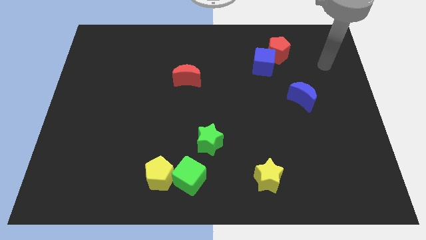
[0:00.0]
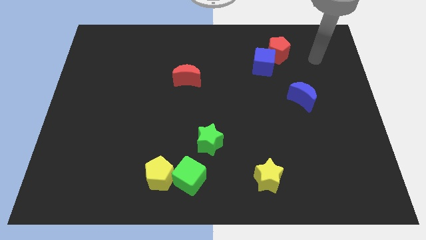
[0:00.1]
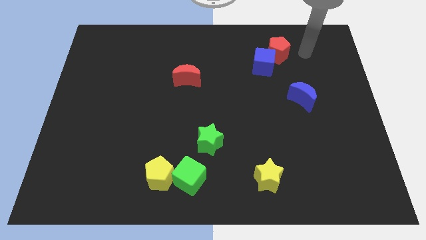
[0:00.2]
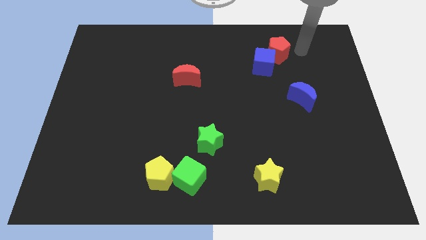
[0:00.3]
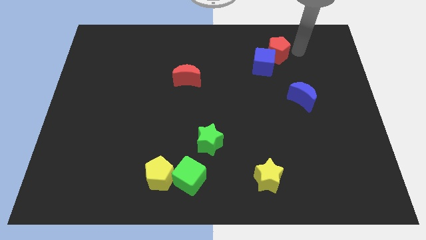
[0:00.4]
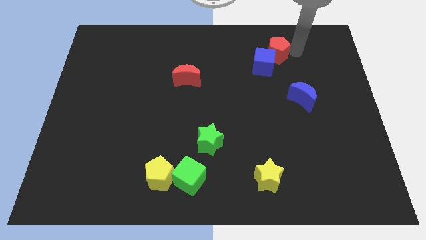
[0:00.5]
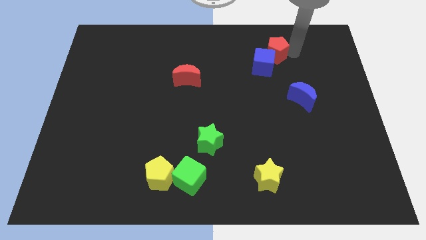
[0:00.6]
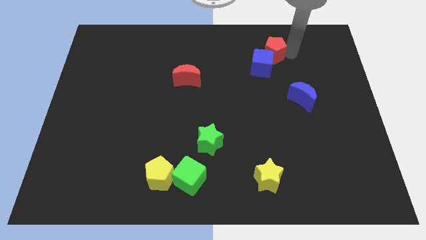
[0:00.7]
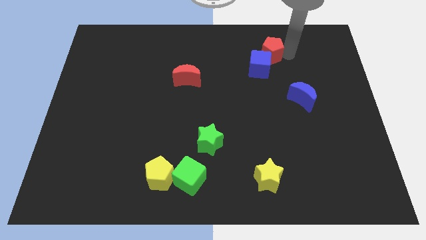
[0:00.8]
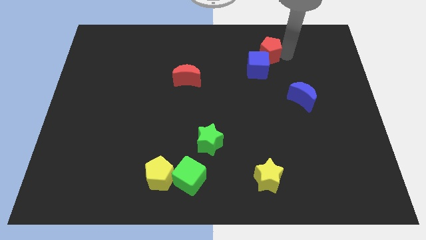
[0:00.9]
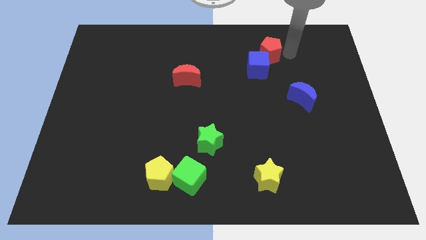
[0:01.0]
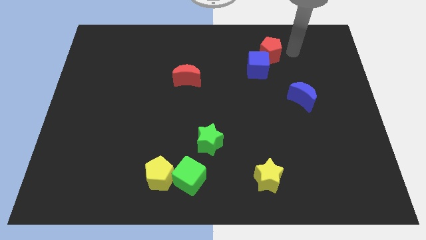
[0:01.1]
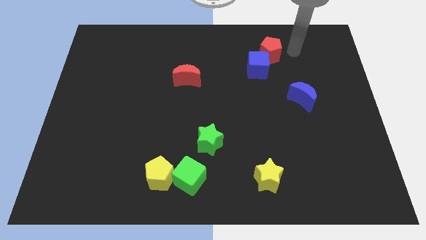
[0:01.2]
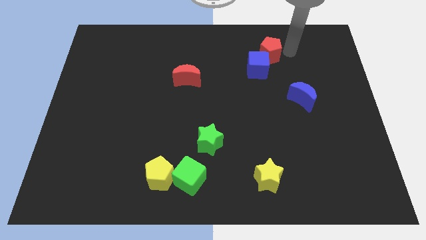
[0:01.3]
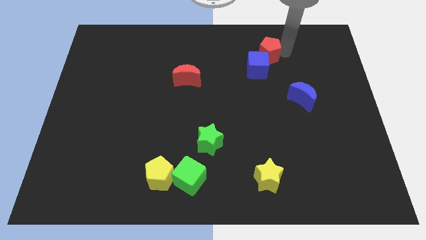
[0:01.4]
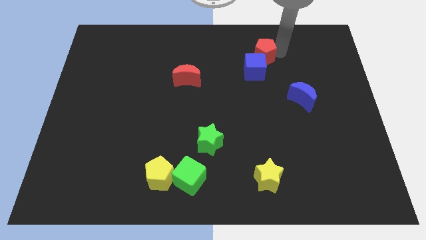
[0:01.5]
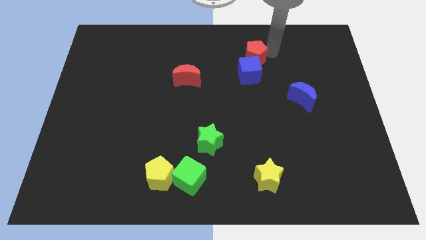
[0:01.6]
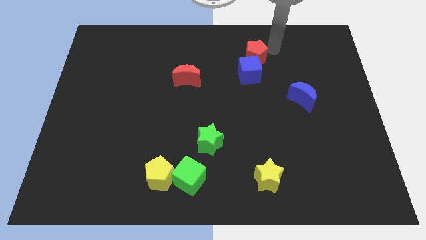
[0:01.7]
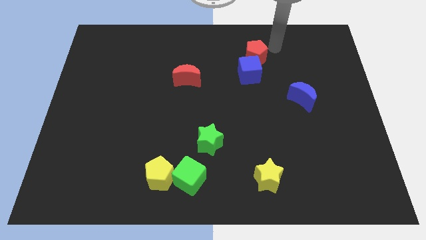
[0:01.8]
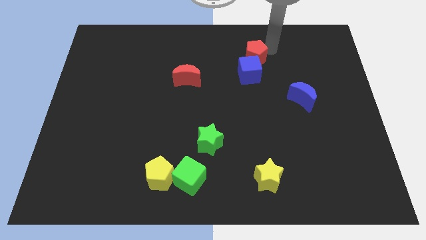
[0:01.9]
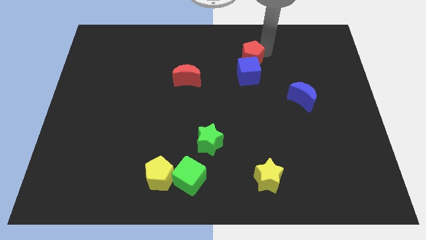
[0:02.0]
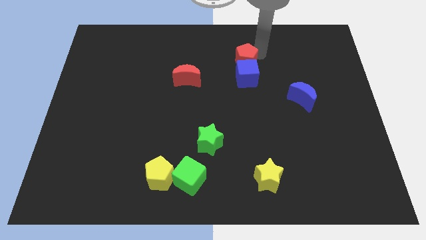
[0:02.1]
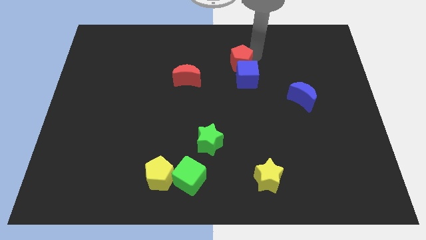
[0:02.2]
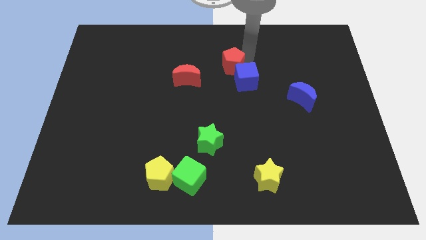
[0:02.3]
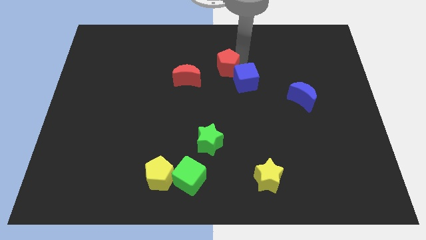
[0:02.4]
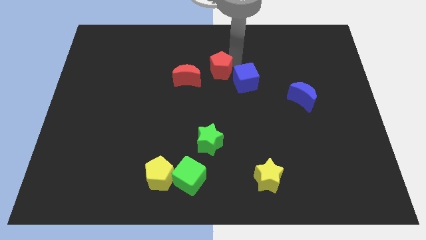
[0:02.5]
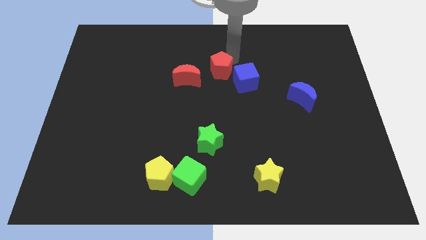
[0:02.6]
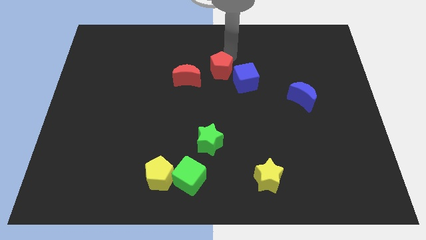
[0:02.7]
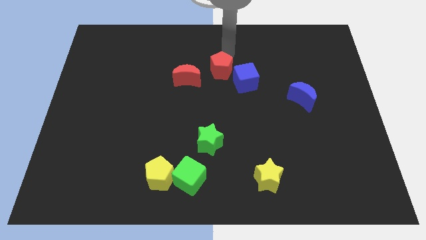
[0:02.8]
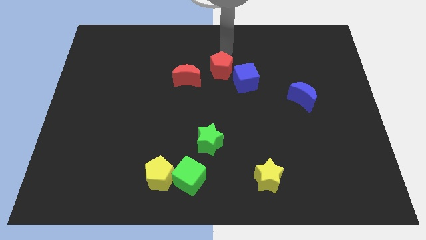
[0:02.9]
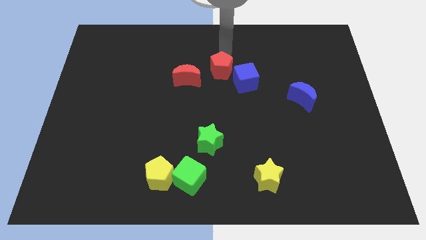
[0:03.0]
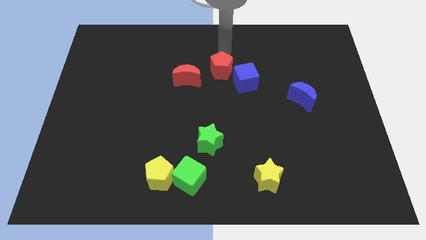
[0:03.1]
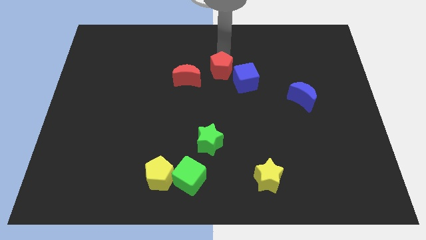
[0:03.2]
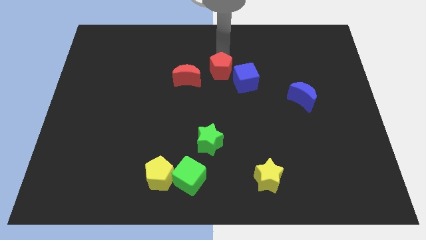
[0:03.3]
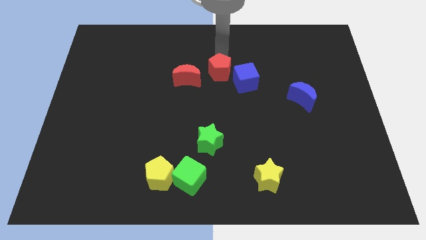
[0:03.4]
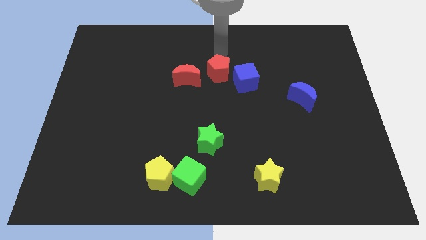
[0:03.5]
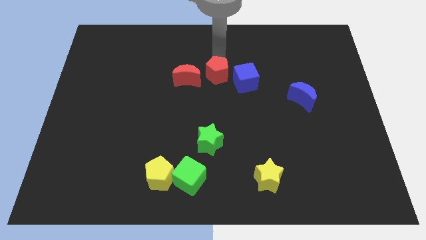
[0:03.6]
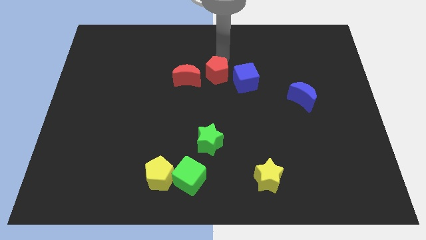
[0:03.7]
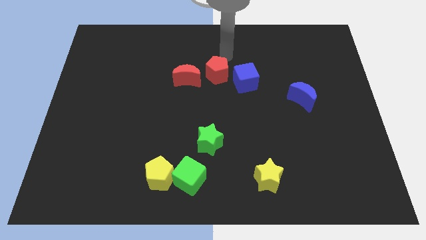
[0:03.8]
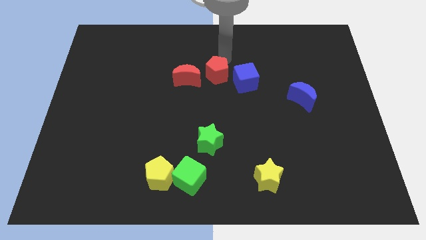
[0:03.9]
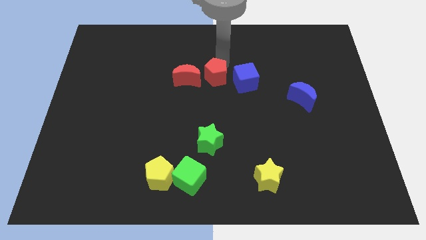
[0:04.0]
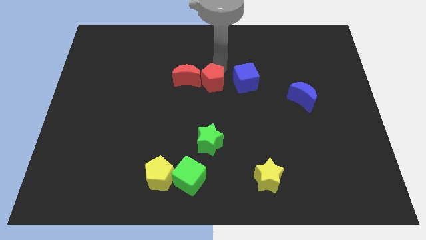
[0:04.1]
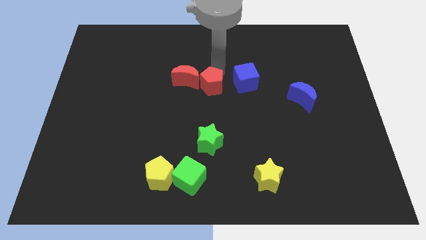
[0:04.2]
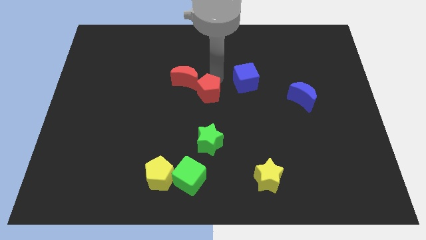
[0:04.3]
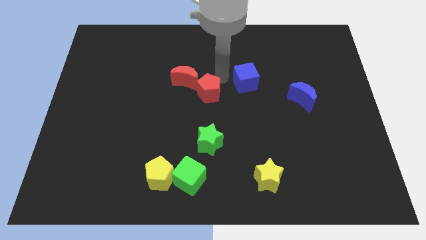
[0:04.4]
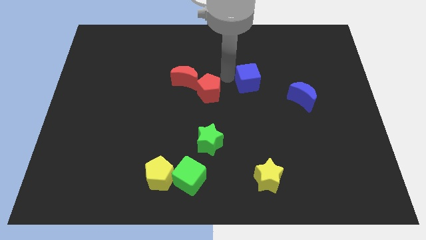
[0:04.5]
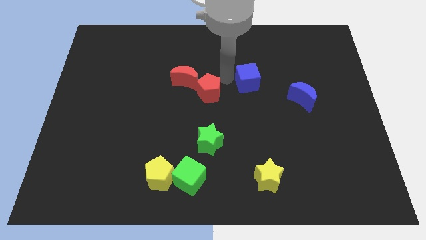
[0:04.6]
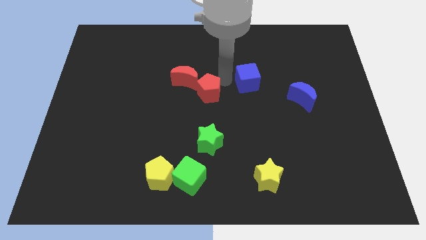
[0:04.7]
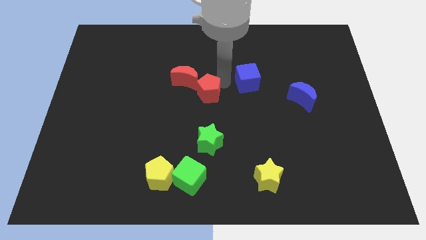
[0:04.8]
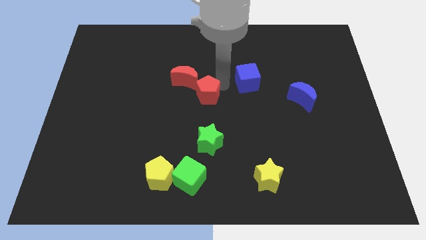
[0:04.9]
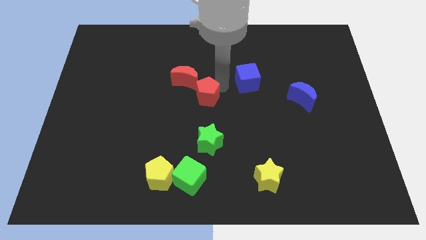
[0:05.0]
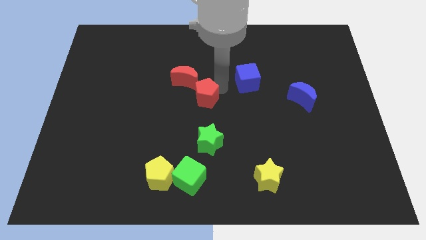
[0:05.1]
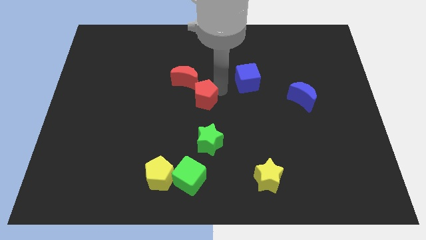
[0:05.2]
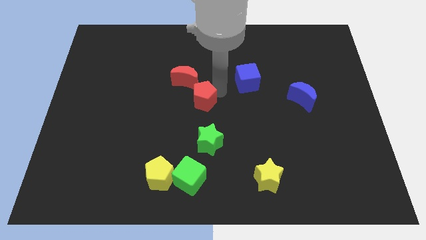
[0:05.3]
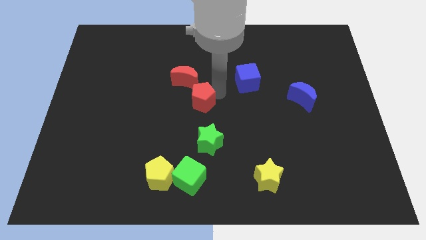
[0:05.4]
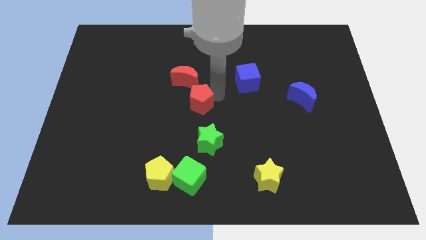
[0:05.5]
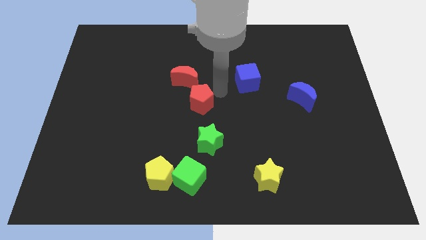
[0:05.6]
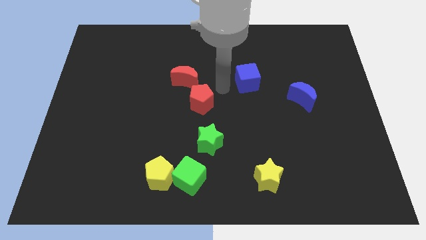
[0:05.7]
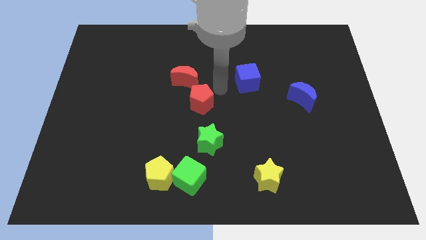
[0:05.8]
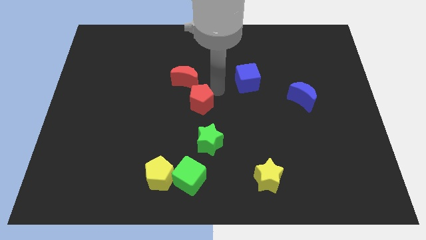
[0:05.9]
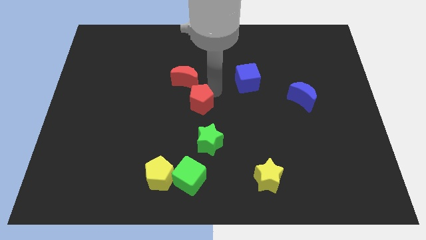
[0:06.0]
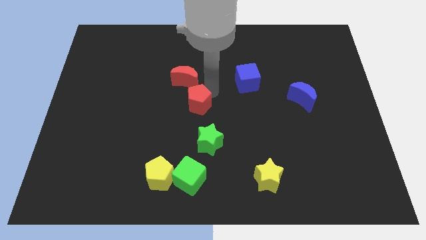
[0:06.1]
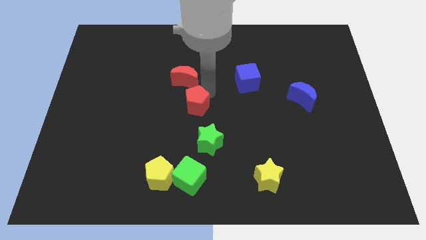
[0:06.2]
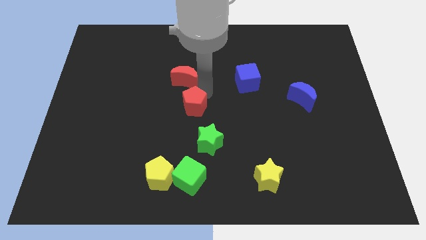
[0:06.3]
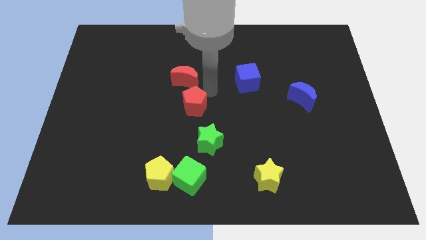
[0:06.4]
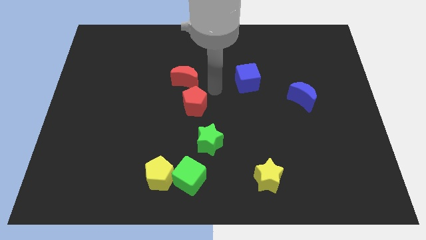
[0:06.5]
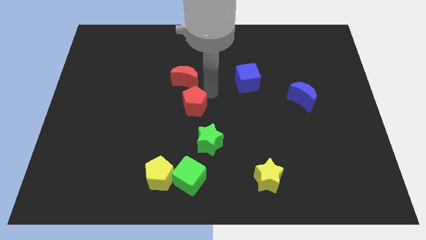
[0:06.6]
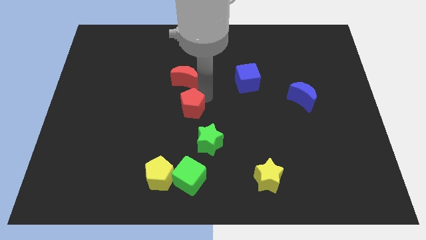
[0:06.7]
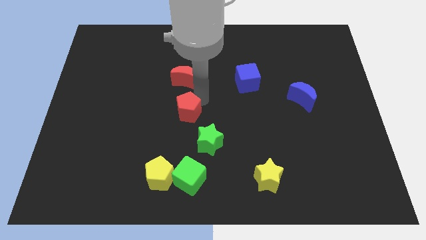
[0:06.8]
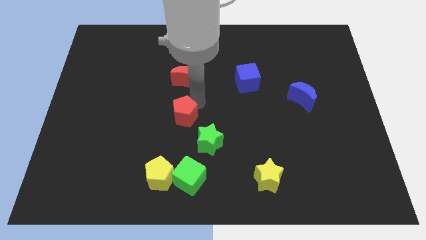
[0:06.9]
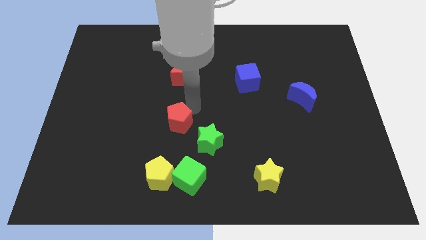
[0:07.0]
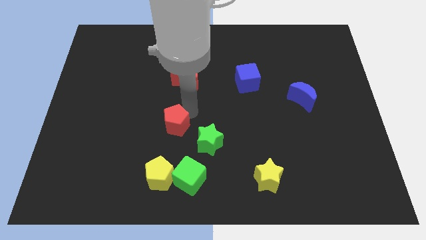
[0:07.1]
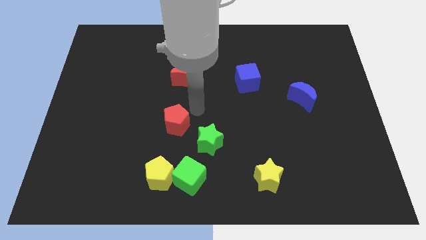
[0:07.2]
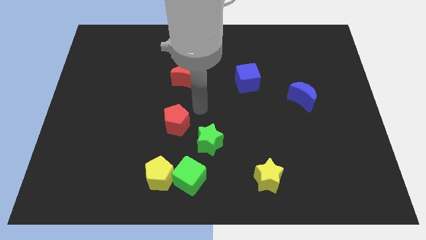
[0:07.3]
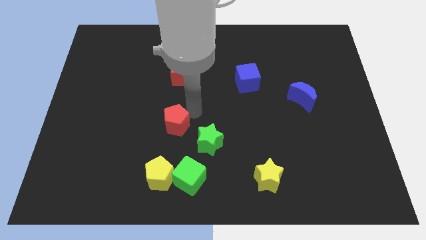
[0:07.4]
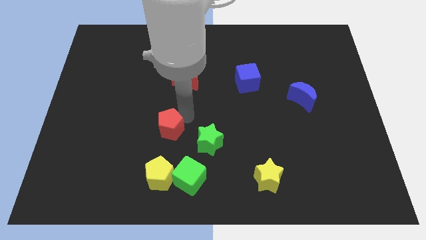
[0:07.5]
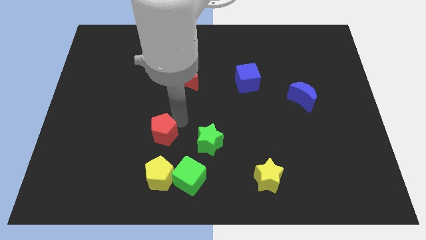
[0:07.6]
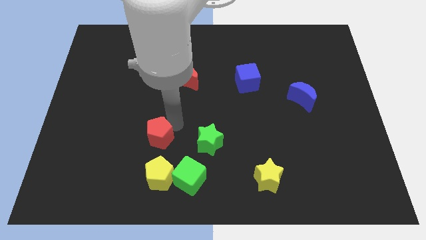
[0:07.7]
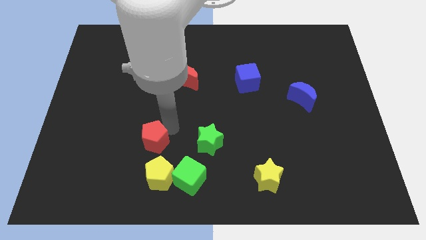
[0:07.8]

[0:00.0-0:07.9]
put the red pentagon to the top left of the yellow pentagon
